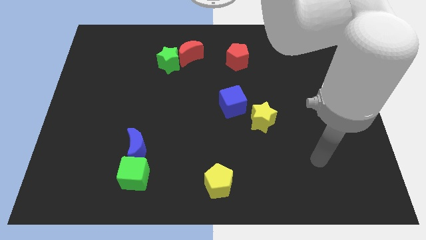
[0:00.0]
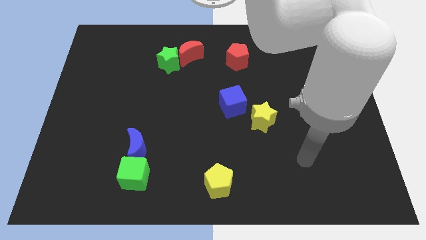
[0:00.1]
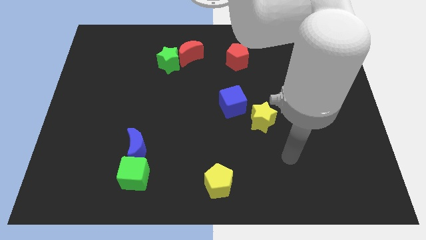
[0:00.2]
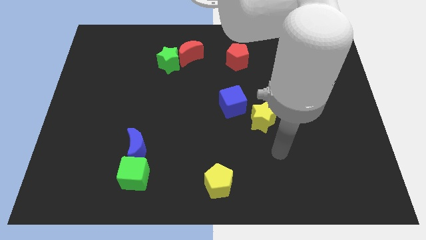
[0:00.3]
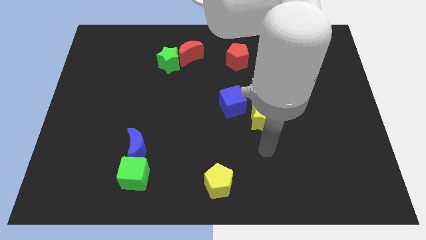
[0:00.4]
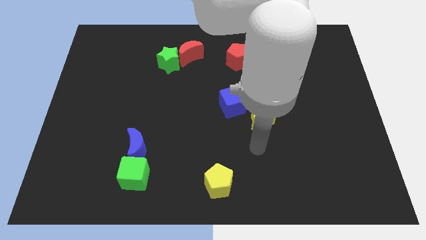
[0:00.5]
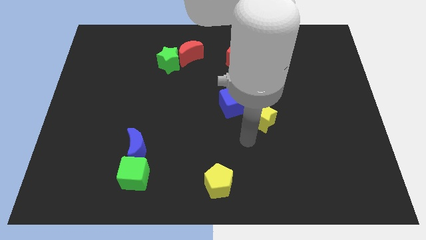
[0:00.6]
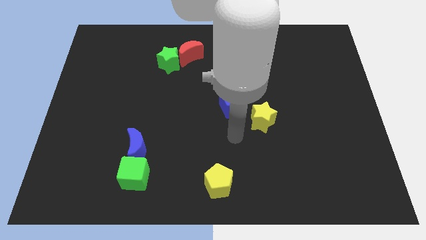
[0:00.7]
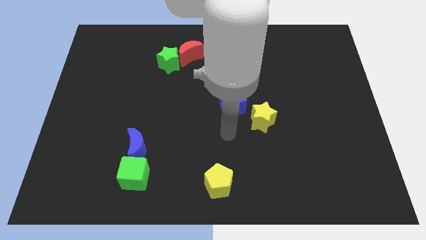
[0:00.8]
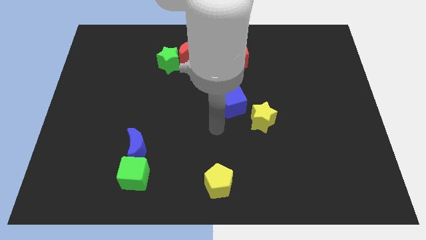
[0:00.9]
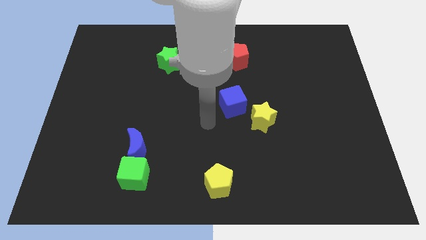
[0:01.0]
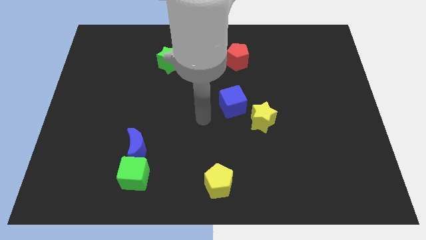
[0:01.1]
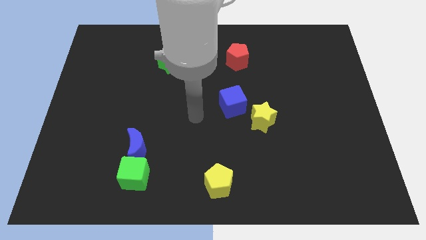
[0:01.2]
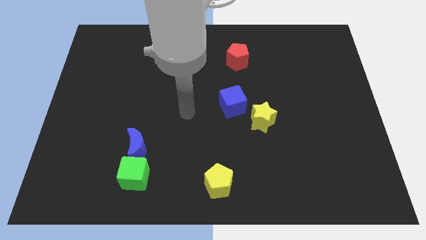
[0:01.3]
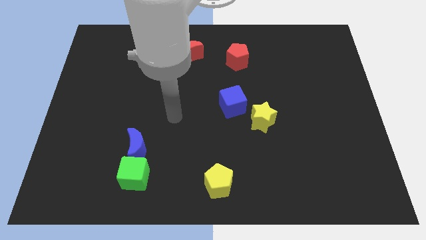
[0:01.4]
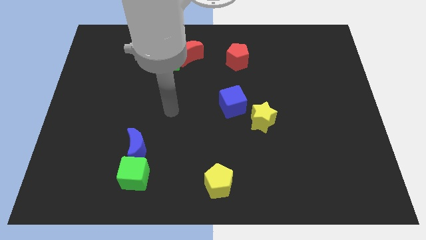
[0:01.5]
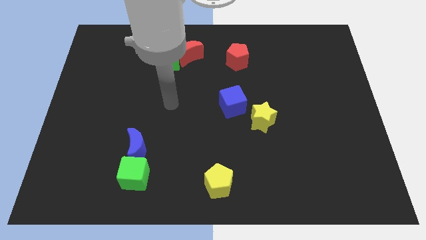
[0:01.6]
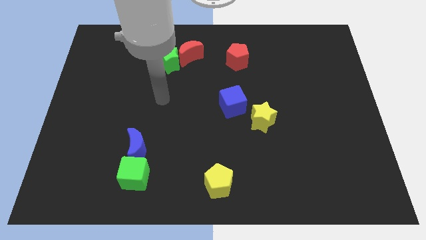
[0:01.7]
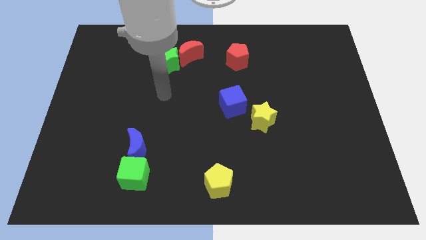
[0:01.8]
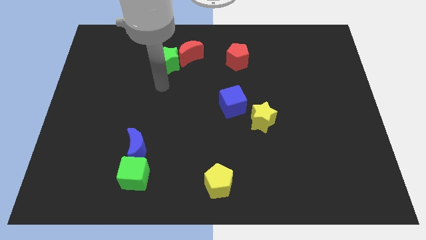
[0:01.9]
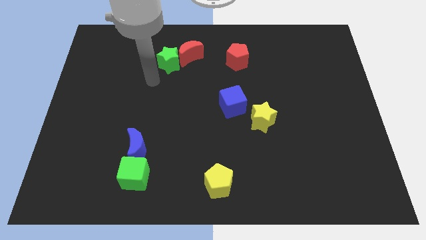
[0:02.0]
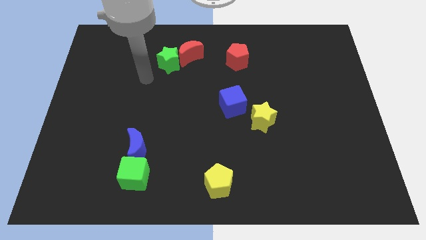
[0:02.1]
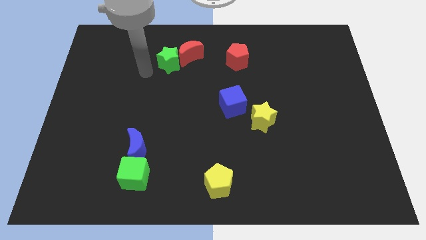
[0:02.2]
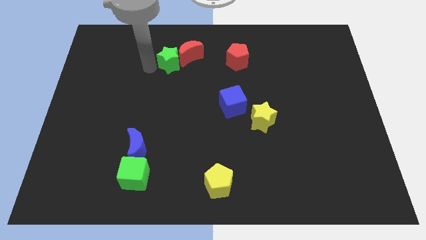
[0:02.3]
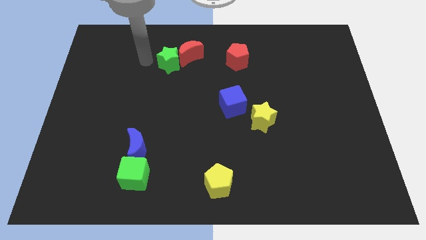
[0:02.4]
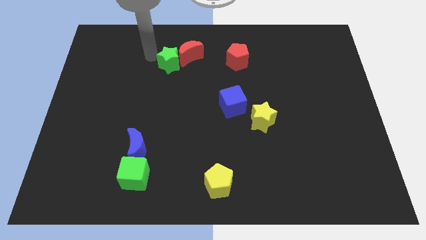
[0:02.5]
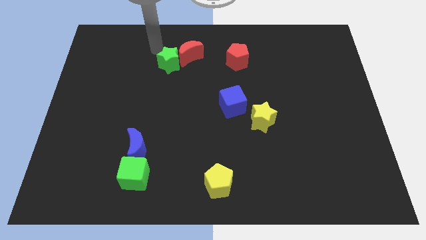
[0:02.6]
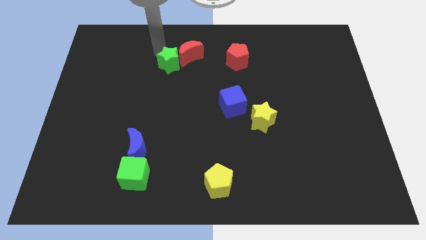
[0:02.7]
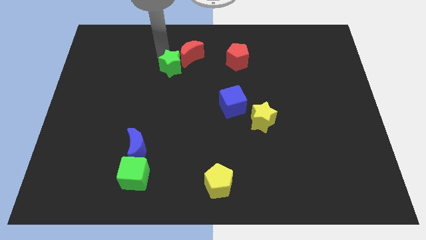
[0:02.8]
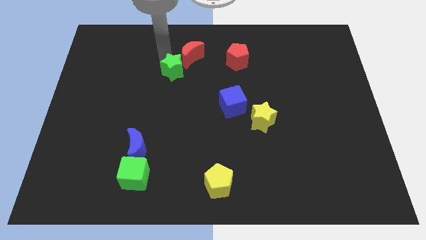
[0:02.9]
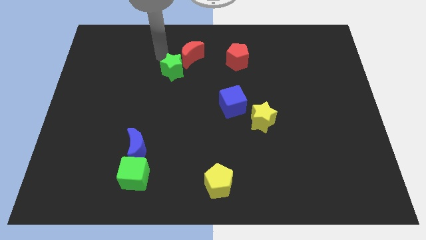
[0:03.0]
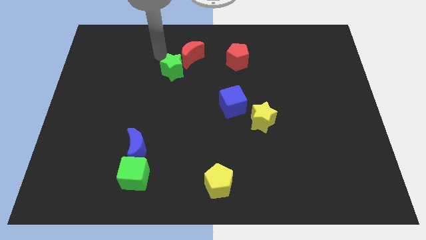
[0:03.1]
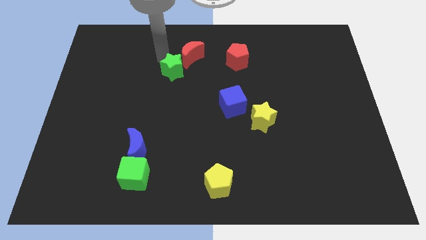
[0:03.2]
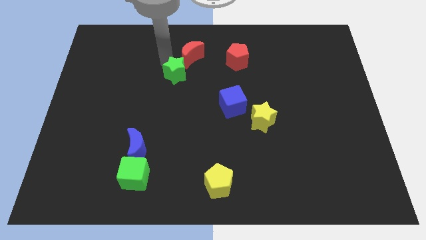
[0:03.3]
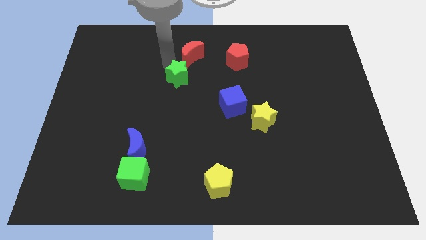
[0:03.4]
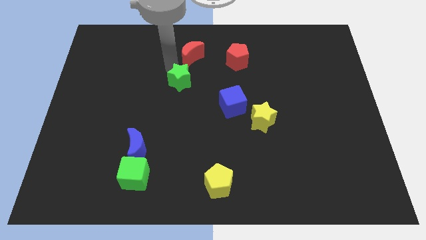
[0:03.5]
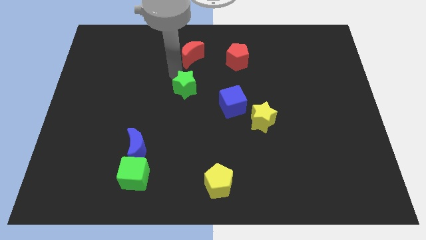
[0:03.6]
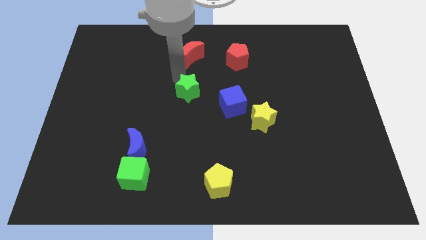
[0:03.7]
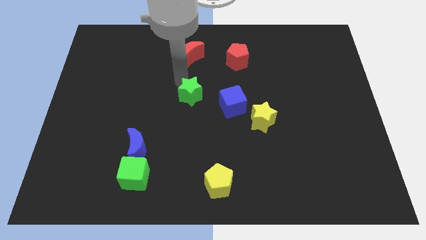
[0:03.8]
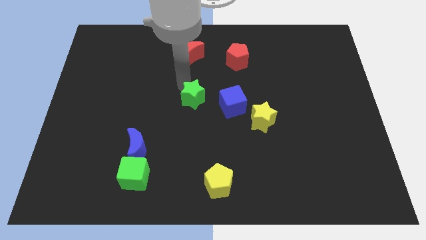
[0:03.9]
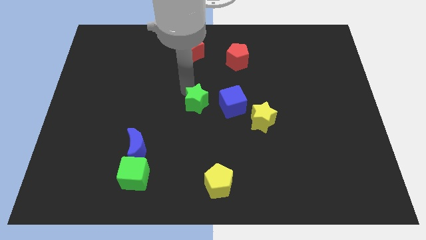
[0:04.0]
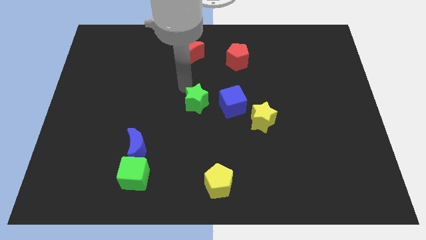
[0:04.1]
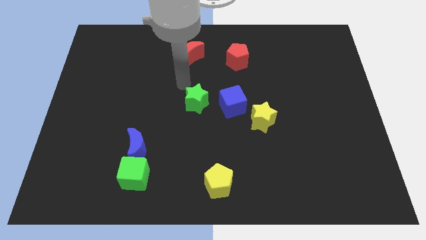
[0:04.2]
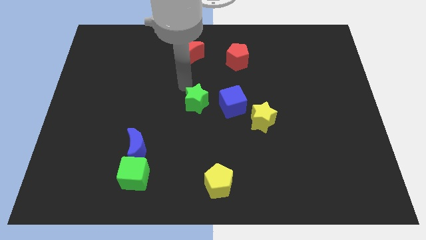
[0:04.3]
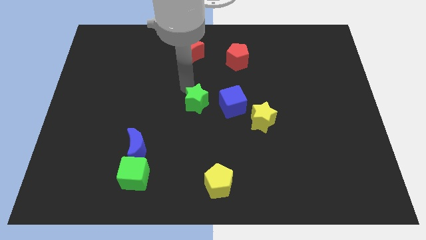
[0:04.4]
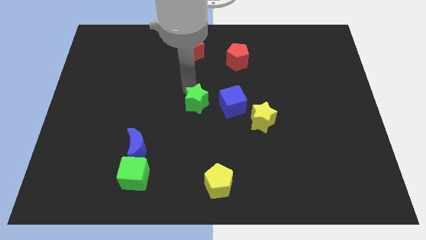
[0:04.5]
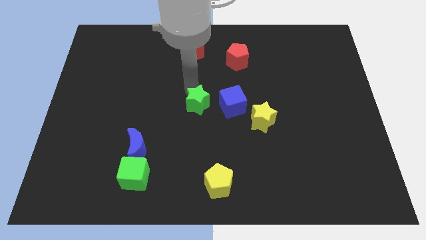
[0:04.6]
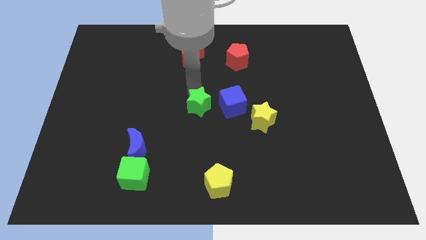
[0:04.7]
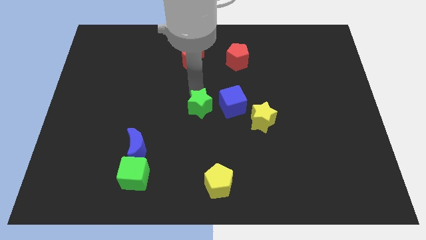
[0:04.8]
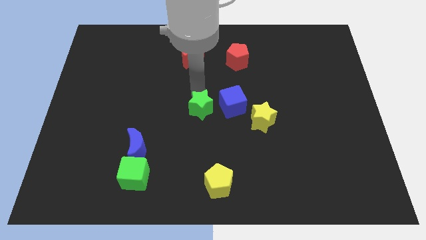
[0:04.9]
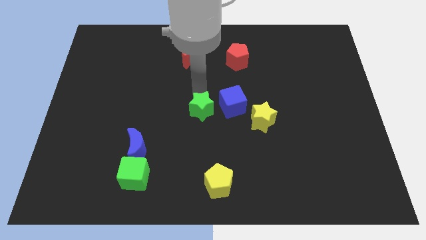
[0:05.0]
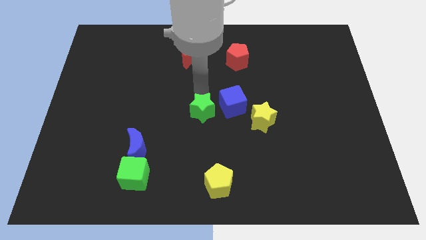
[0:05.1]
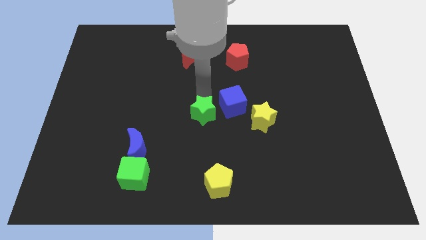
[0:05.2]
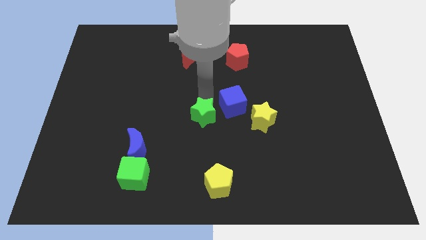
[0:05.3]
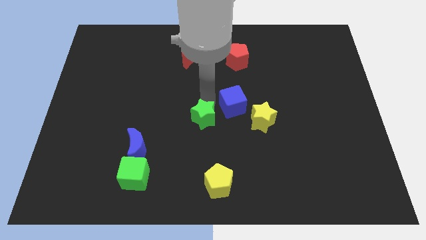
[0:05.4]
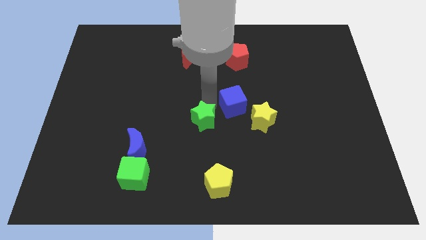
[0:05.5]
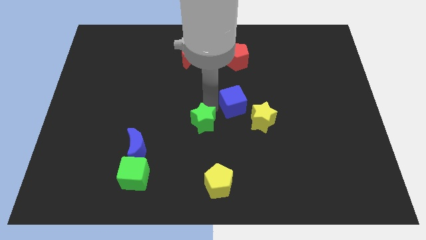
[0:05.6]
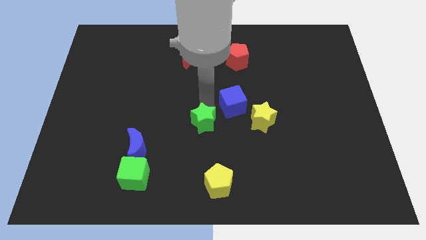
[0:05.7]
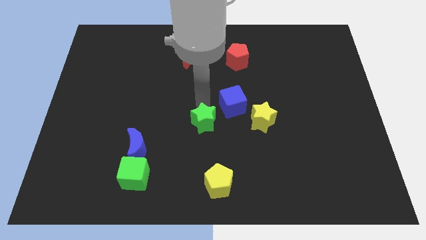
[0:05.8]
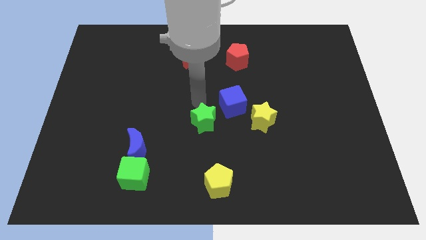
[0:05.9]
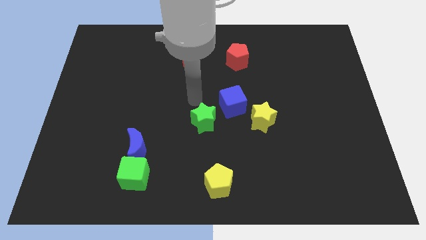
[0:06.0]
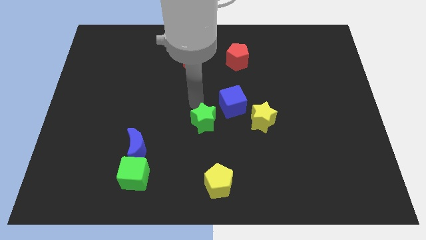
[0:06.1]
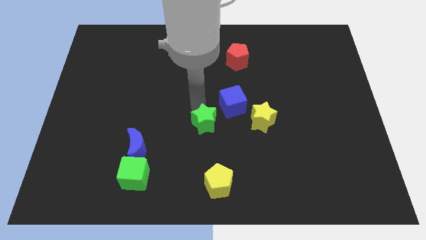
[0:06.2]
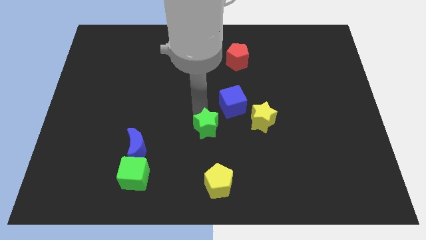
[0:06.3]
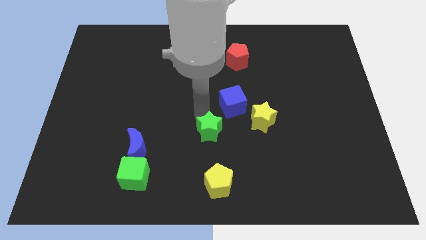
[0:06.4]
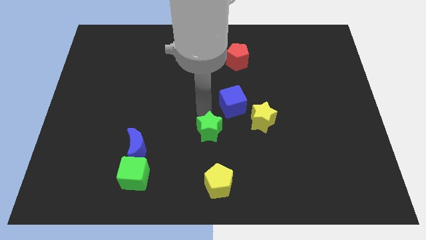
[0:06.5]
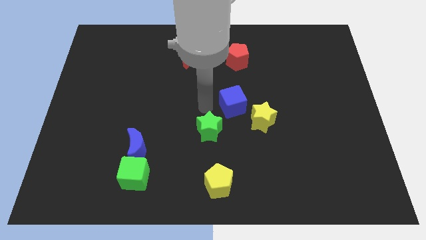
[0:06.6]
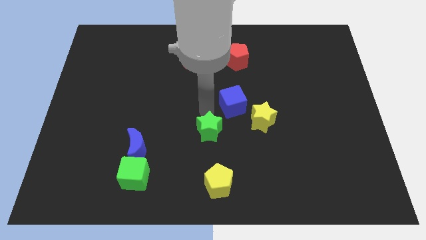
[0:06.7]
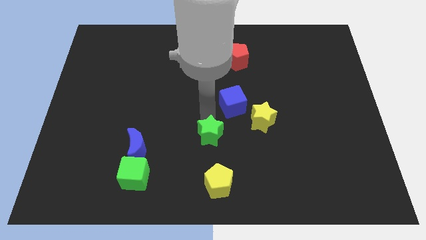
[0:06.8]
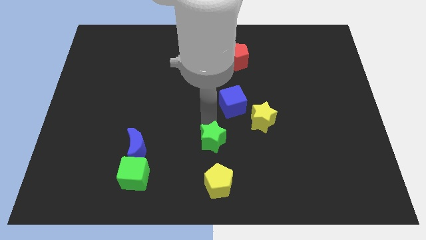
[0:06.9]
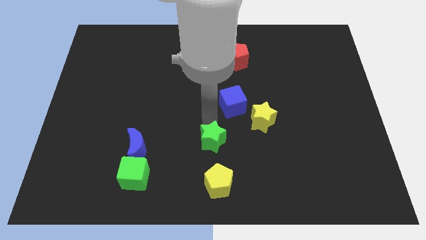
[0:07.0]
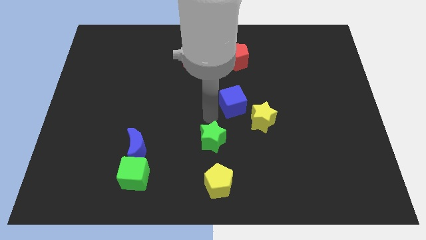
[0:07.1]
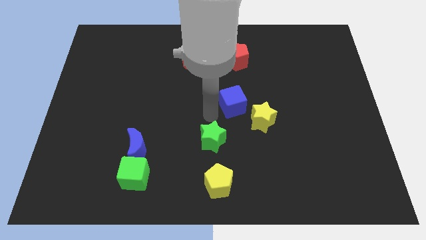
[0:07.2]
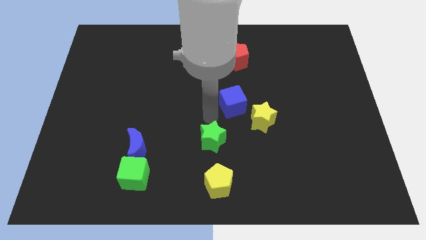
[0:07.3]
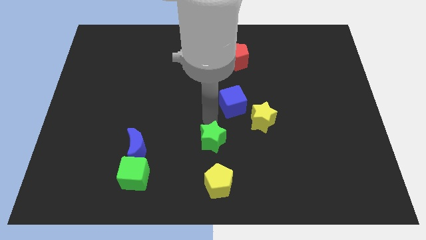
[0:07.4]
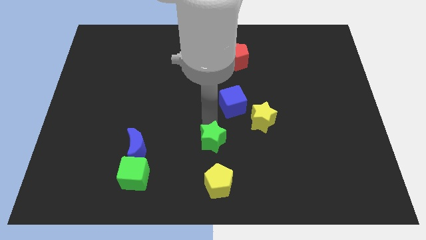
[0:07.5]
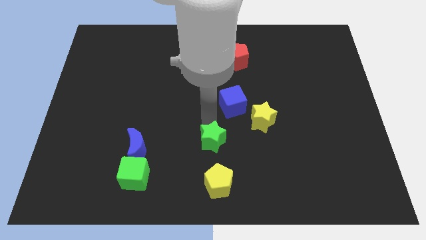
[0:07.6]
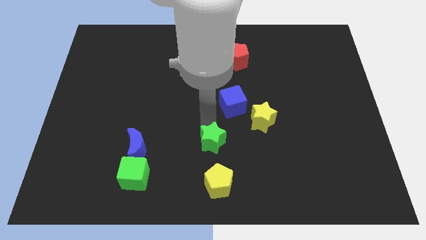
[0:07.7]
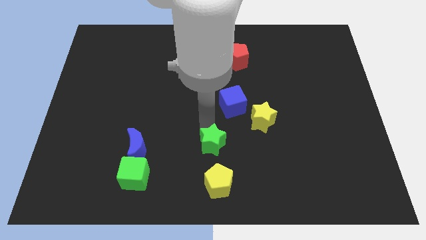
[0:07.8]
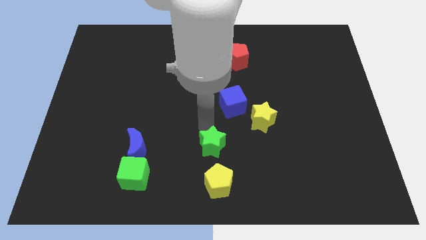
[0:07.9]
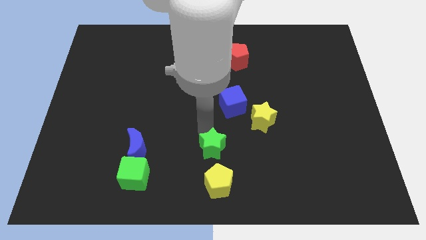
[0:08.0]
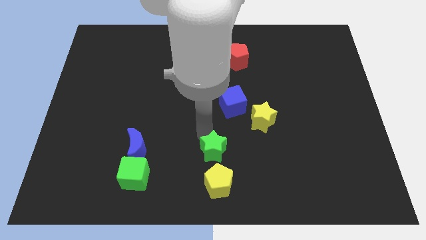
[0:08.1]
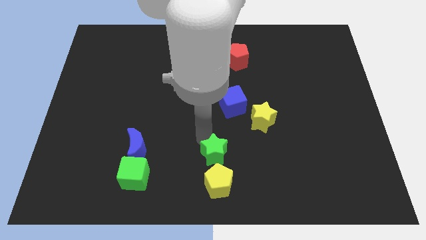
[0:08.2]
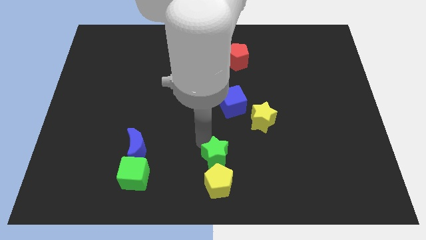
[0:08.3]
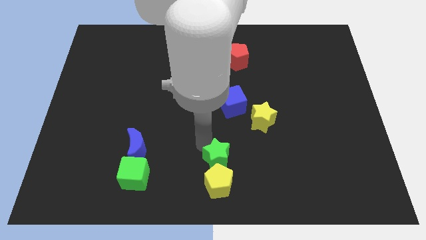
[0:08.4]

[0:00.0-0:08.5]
push the green star towards the yellow pentagon
